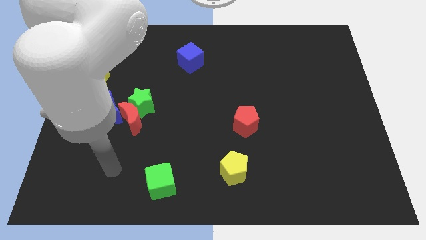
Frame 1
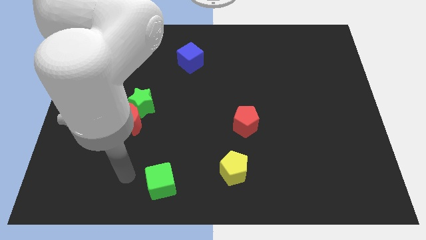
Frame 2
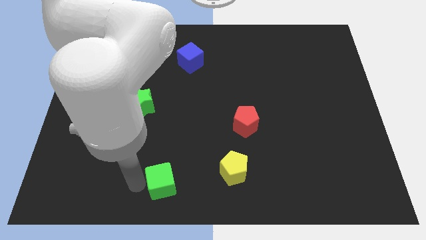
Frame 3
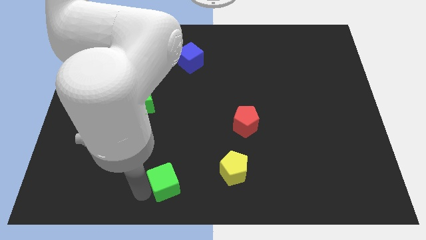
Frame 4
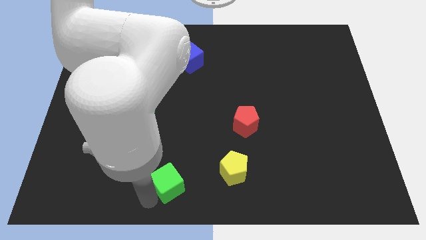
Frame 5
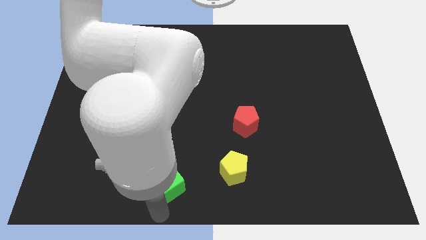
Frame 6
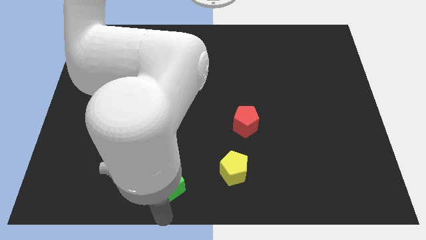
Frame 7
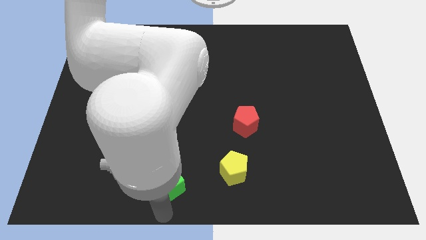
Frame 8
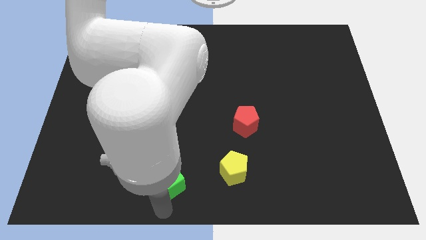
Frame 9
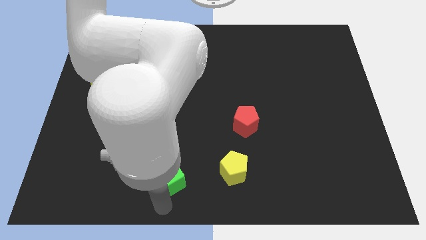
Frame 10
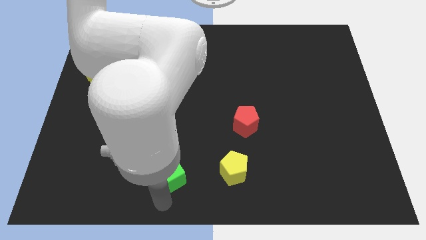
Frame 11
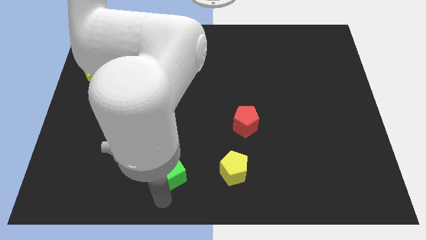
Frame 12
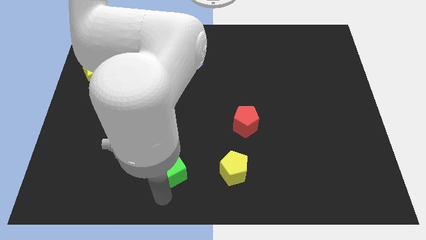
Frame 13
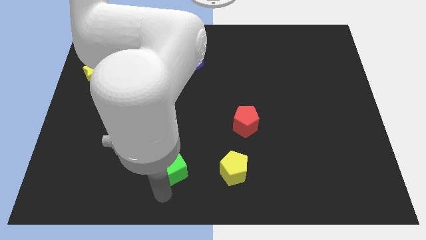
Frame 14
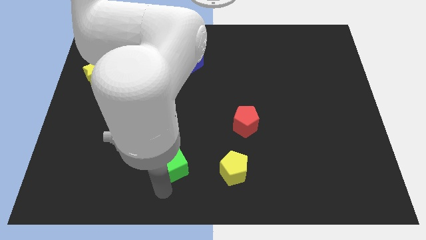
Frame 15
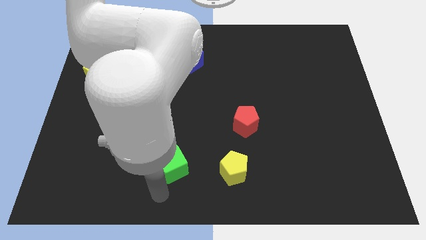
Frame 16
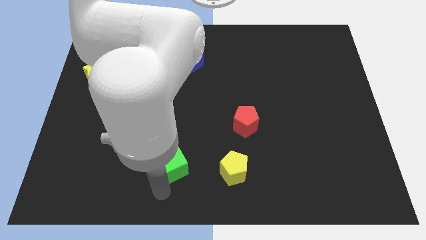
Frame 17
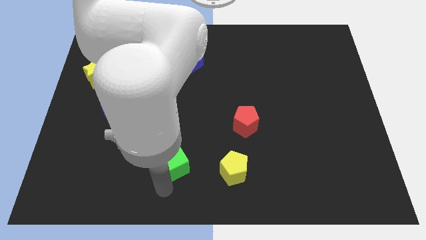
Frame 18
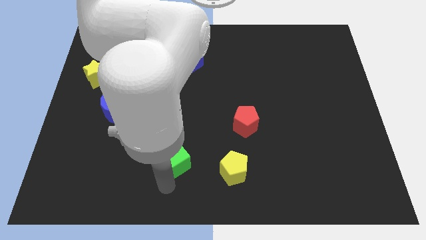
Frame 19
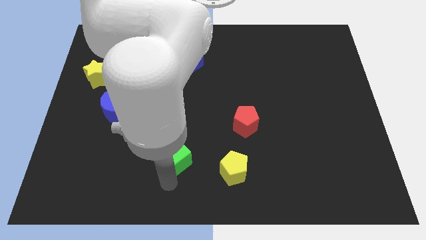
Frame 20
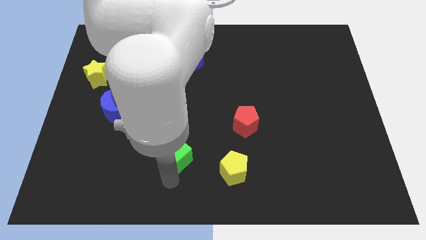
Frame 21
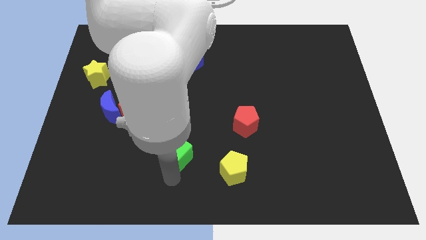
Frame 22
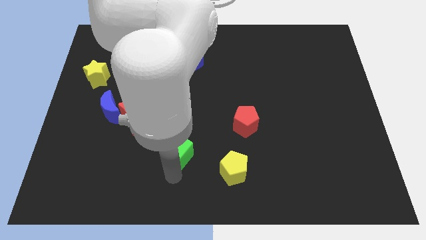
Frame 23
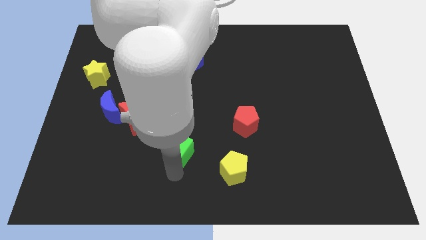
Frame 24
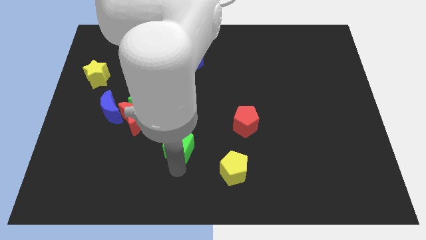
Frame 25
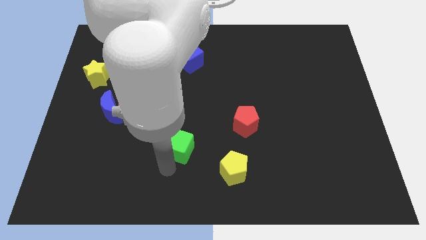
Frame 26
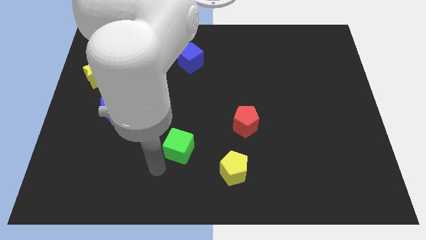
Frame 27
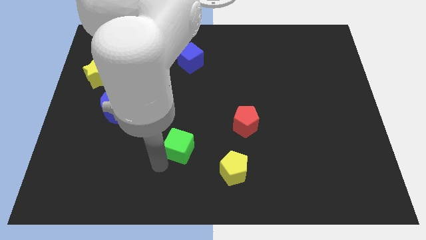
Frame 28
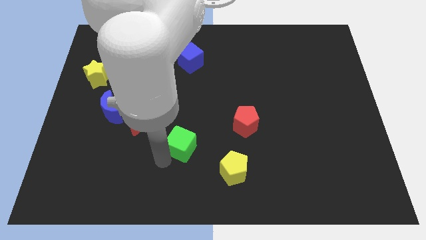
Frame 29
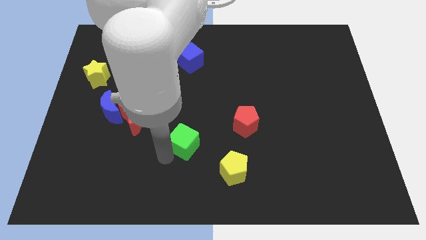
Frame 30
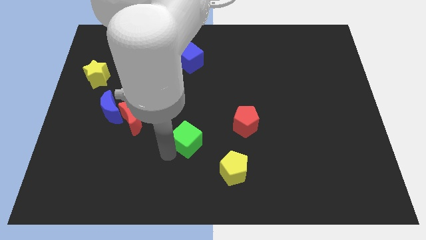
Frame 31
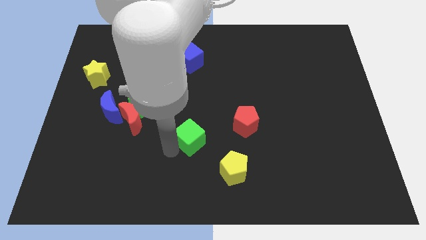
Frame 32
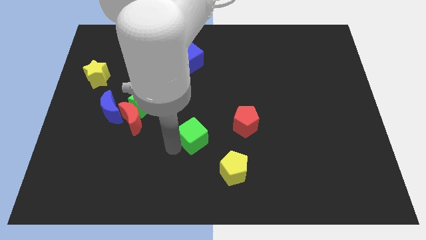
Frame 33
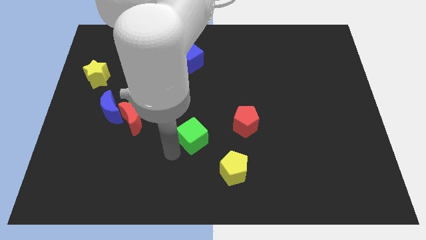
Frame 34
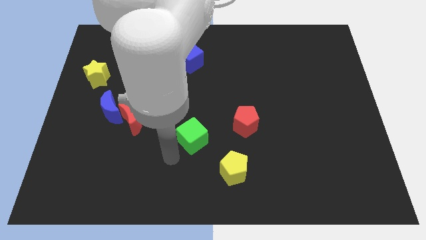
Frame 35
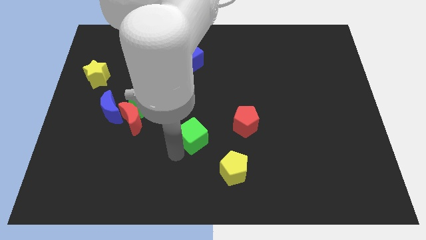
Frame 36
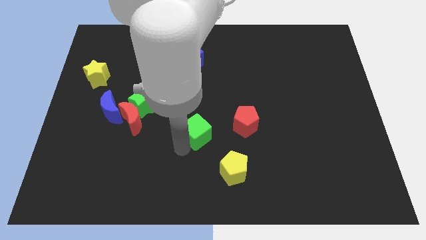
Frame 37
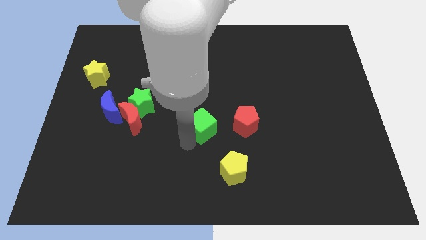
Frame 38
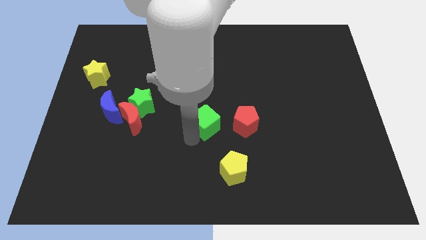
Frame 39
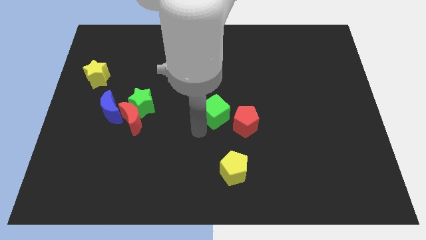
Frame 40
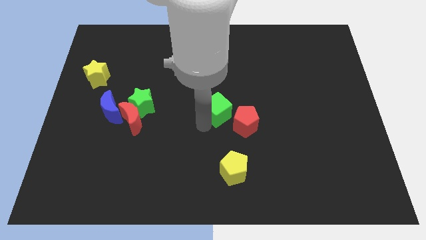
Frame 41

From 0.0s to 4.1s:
push the green cube upwards and to the right diagonally

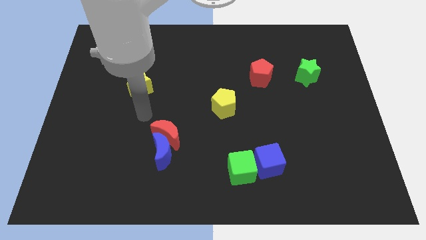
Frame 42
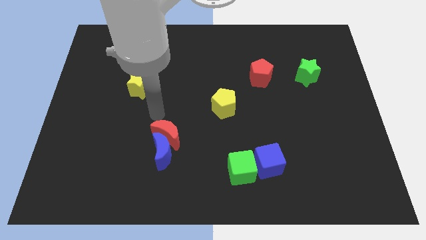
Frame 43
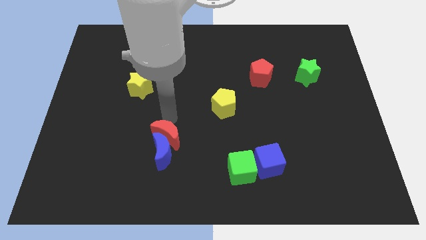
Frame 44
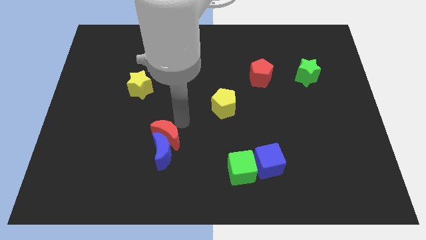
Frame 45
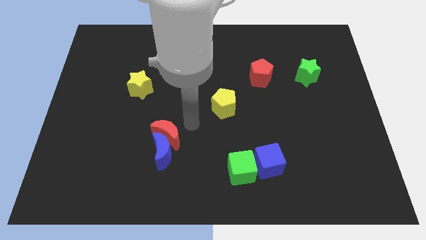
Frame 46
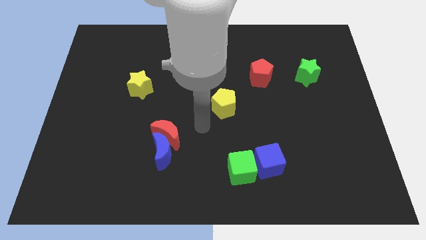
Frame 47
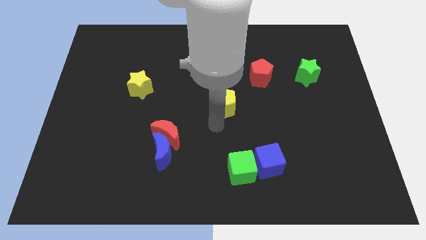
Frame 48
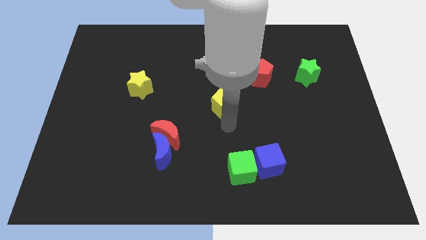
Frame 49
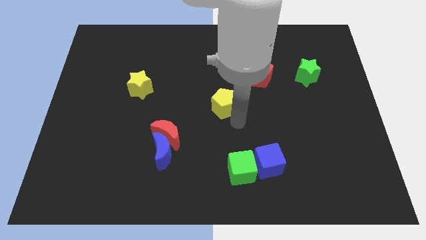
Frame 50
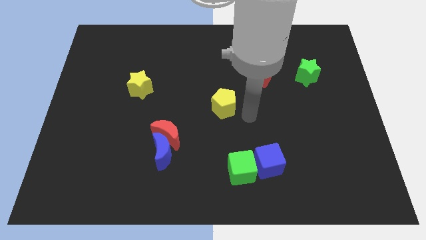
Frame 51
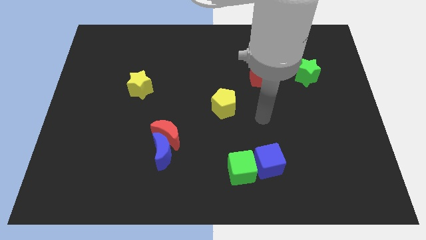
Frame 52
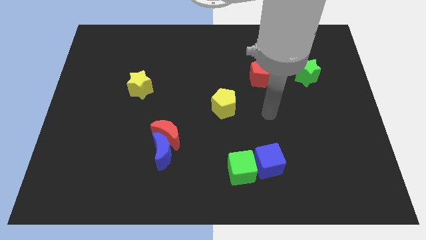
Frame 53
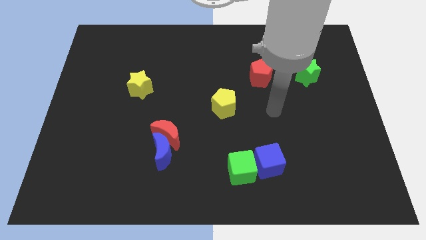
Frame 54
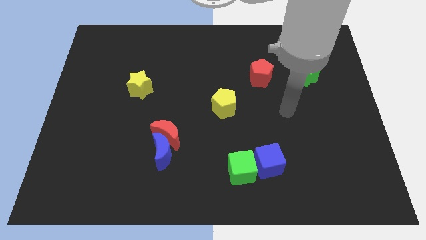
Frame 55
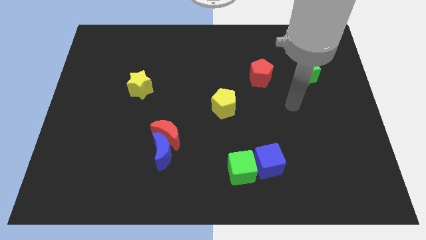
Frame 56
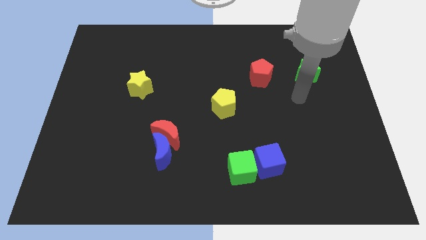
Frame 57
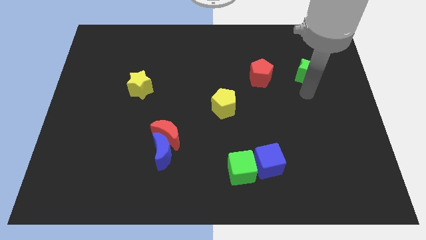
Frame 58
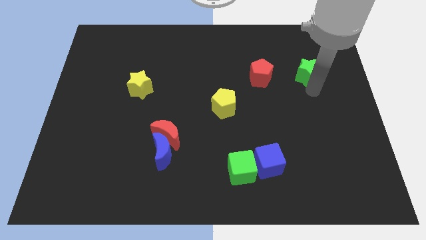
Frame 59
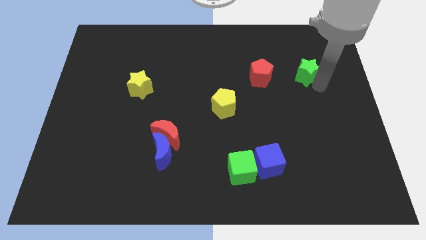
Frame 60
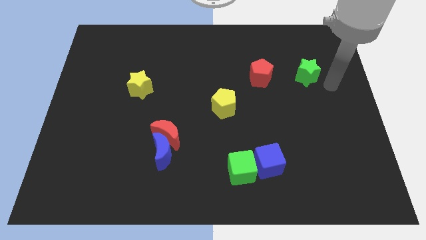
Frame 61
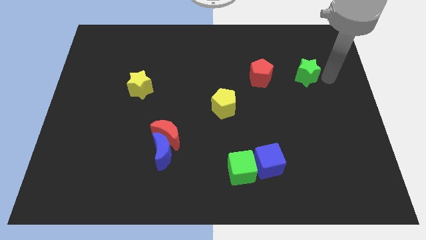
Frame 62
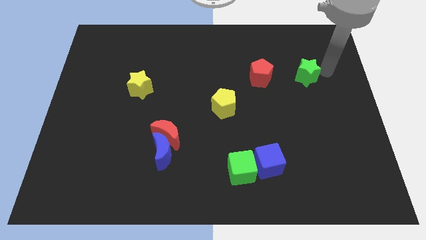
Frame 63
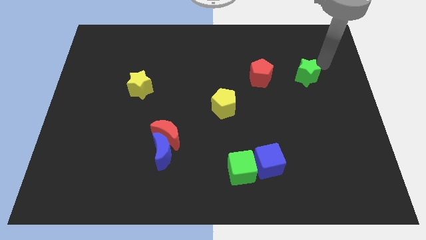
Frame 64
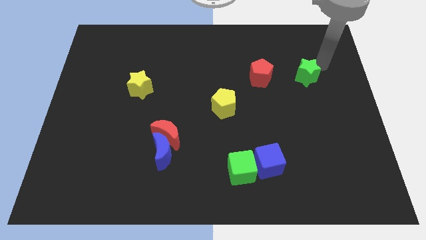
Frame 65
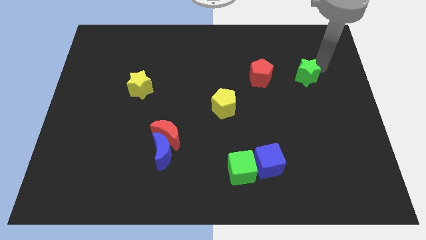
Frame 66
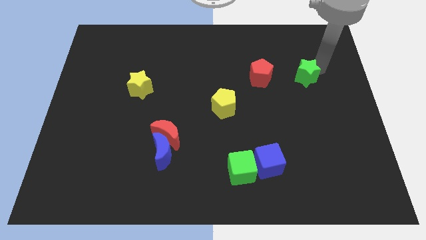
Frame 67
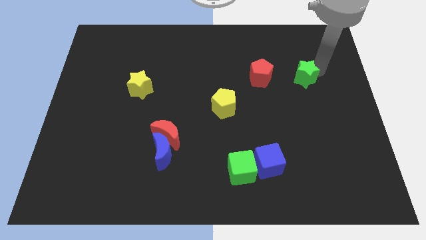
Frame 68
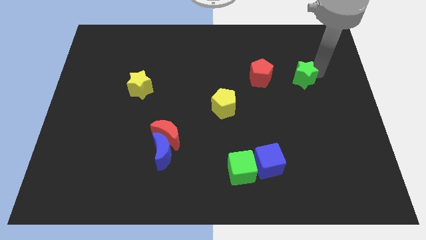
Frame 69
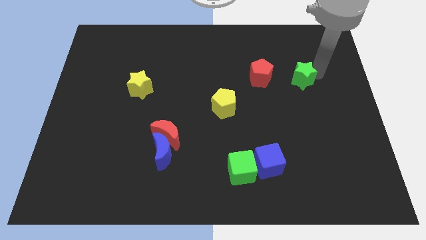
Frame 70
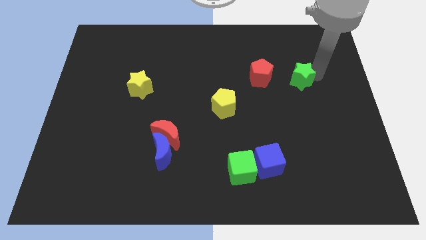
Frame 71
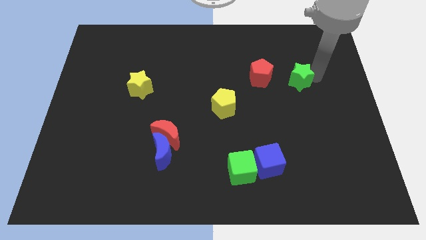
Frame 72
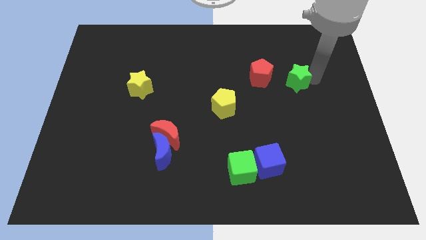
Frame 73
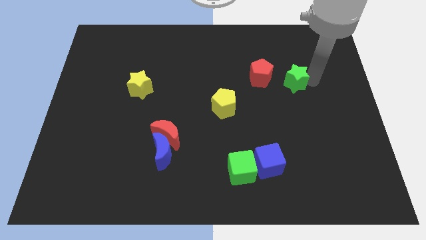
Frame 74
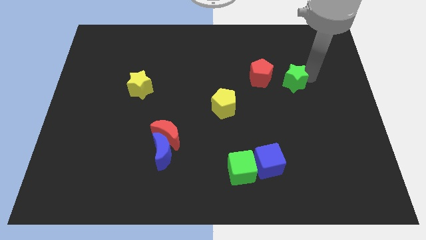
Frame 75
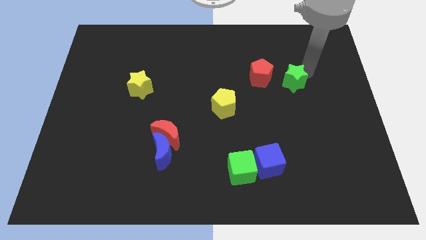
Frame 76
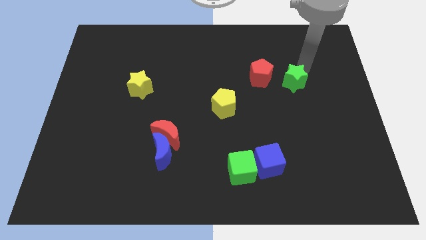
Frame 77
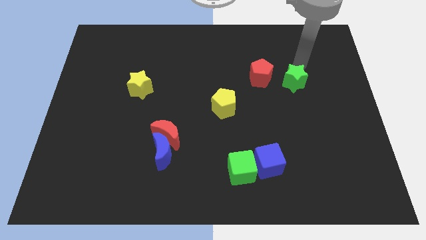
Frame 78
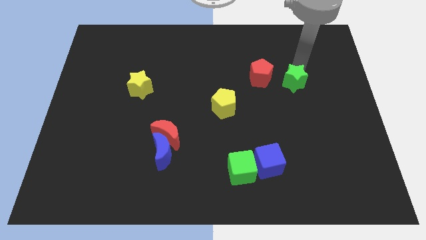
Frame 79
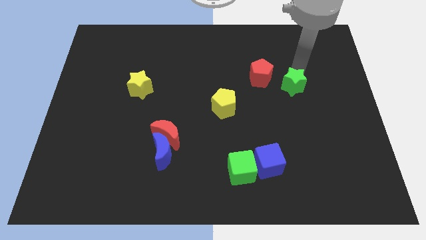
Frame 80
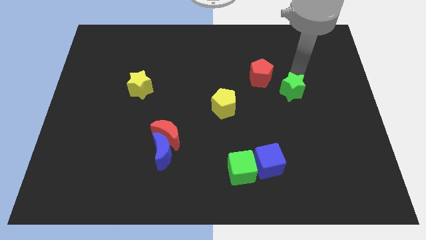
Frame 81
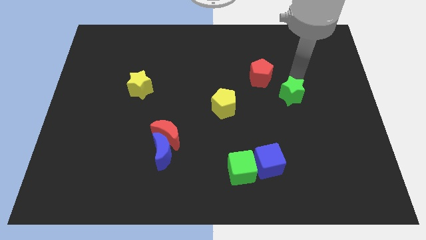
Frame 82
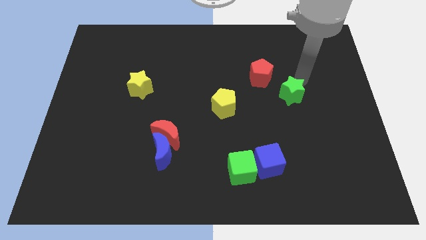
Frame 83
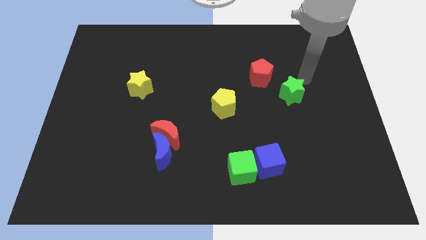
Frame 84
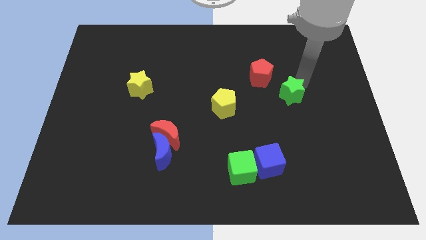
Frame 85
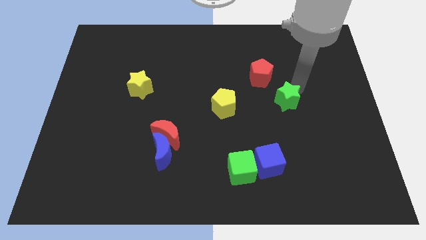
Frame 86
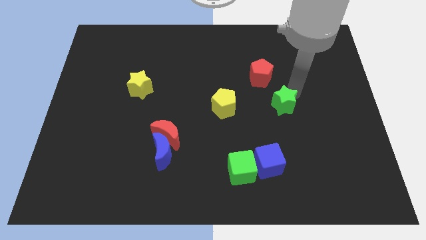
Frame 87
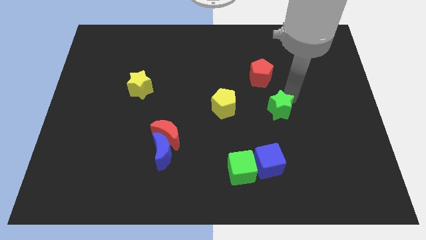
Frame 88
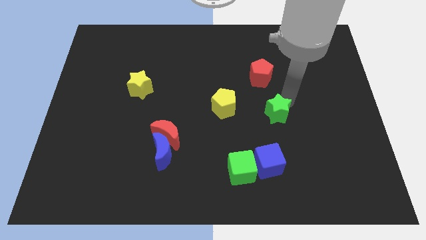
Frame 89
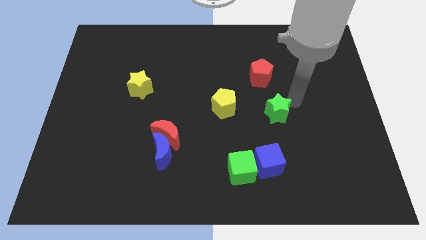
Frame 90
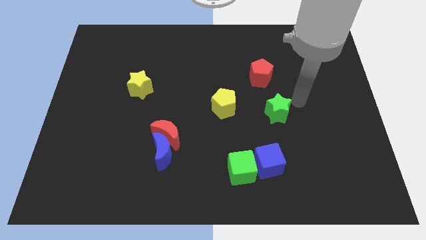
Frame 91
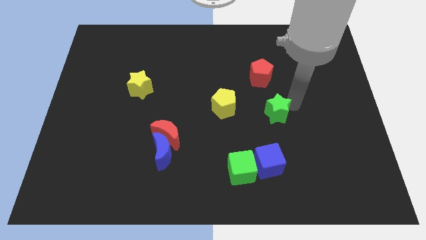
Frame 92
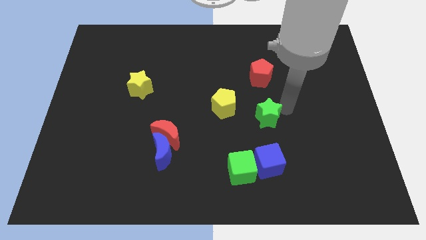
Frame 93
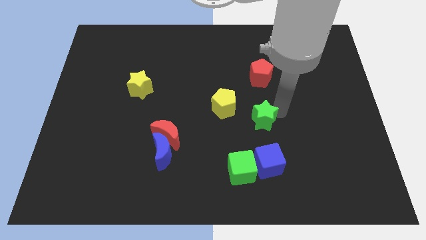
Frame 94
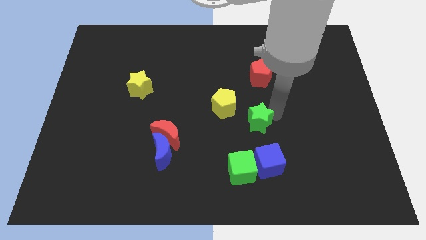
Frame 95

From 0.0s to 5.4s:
push the green star down and left
